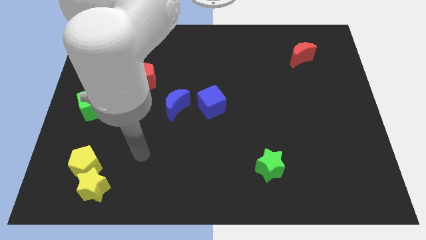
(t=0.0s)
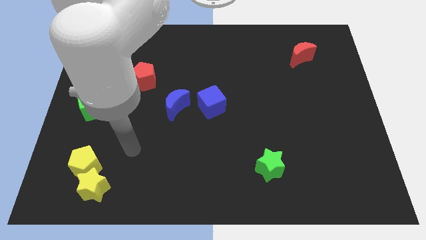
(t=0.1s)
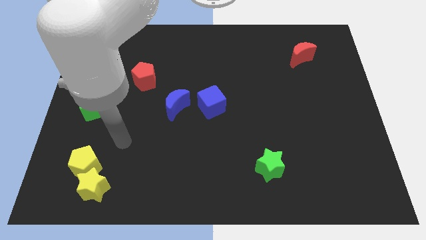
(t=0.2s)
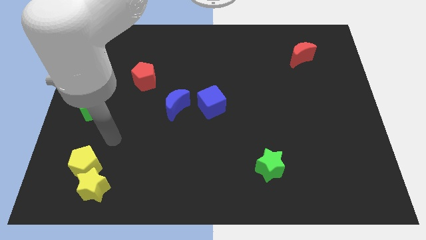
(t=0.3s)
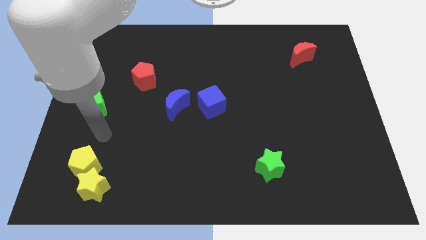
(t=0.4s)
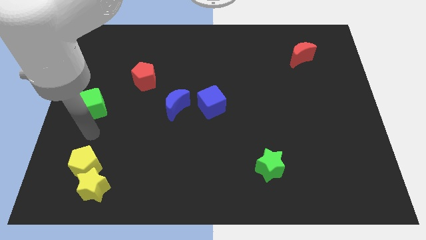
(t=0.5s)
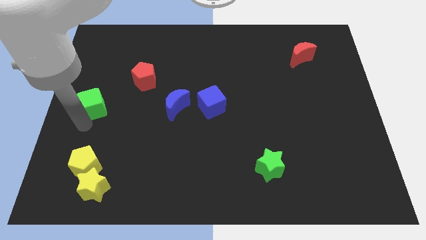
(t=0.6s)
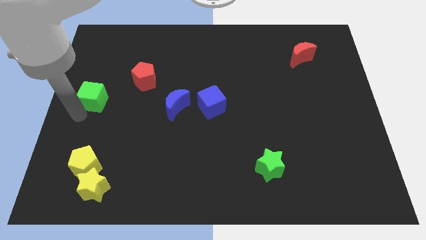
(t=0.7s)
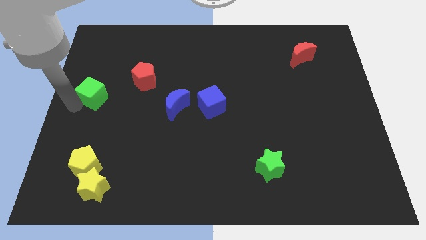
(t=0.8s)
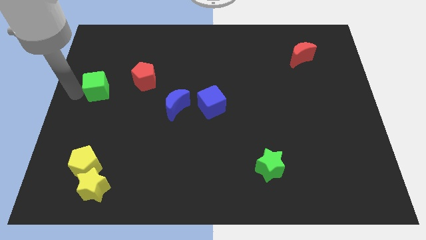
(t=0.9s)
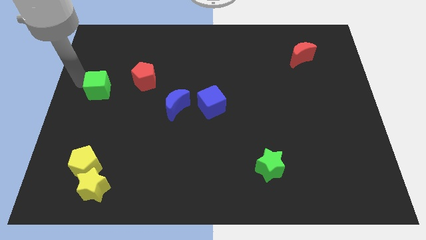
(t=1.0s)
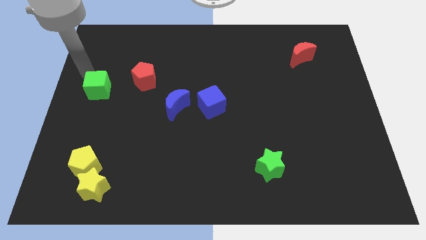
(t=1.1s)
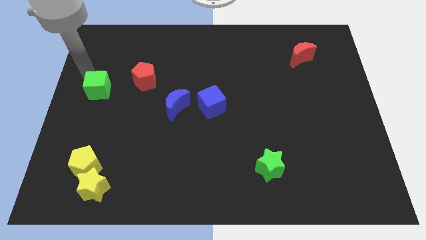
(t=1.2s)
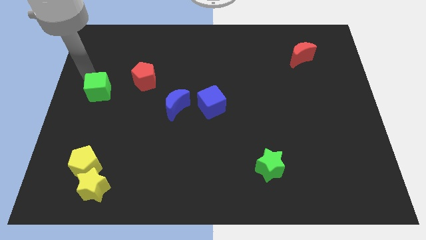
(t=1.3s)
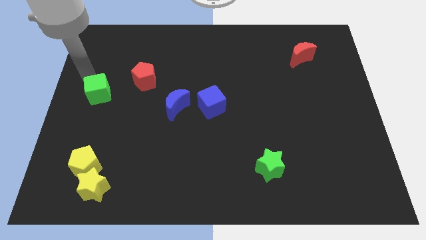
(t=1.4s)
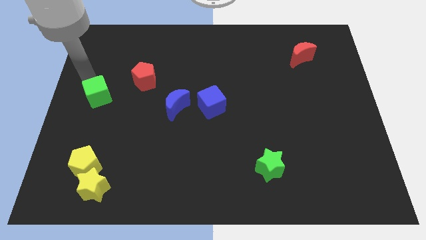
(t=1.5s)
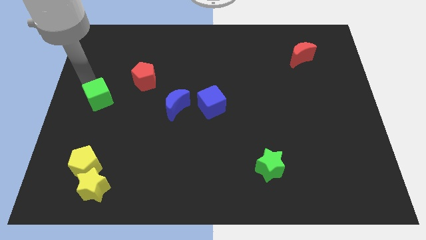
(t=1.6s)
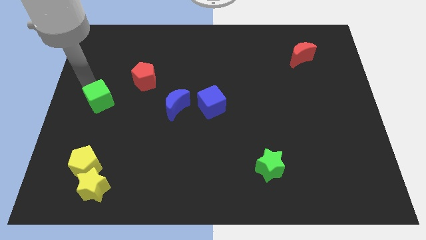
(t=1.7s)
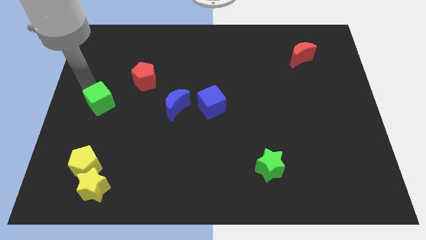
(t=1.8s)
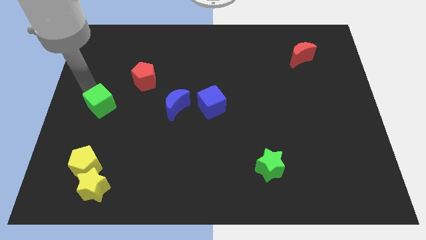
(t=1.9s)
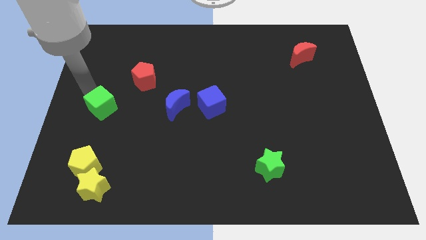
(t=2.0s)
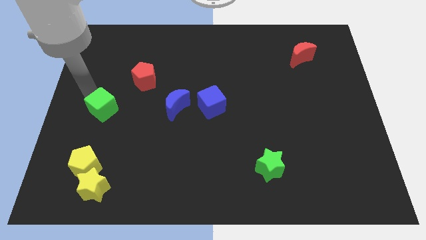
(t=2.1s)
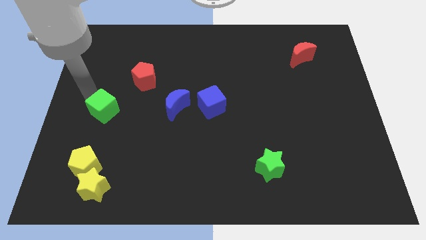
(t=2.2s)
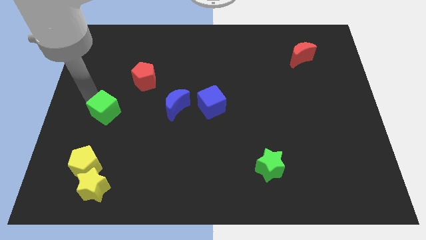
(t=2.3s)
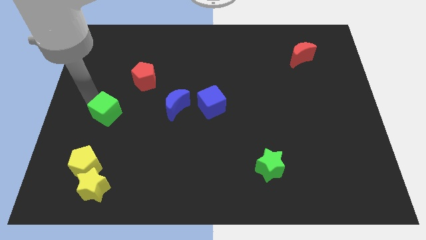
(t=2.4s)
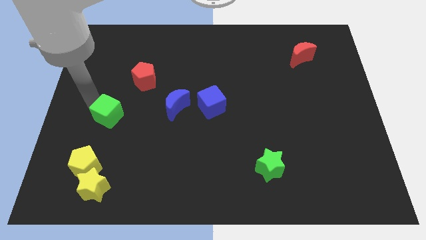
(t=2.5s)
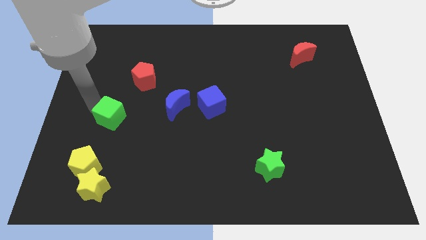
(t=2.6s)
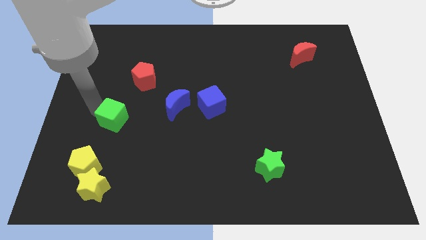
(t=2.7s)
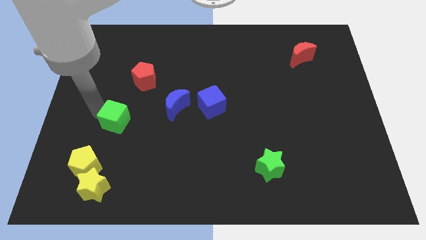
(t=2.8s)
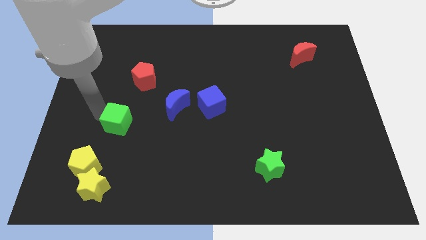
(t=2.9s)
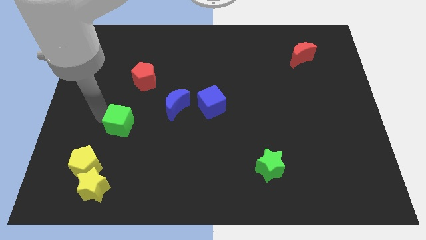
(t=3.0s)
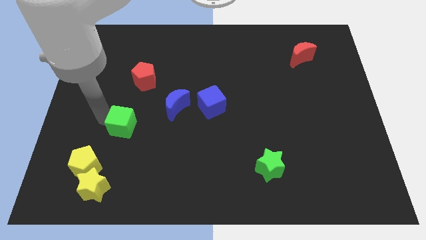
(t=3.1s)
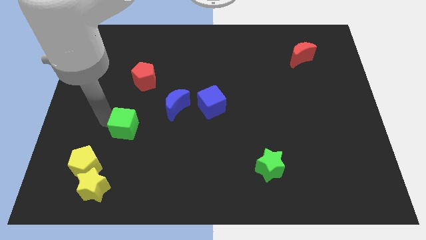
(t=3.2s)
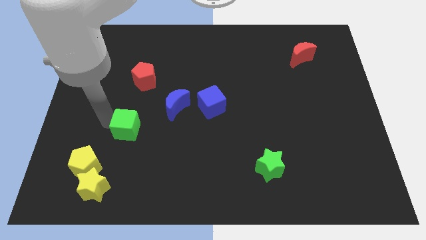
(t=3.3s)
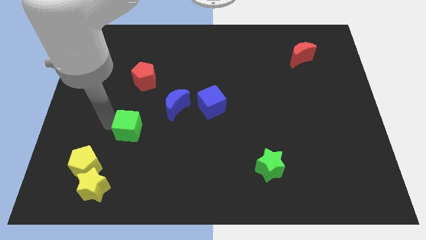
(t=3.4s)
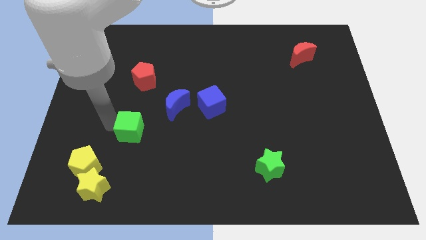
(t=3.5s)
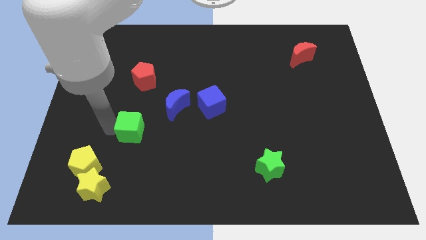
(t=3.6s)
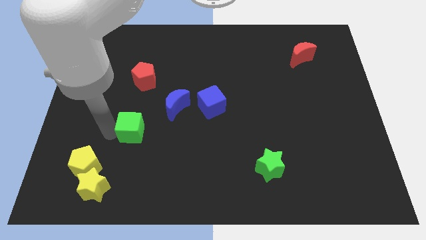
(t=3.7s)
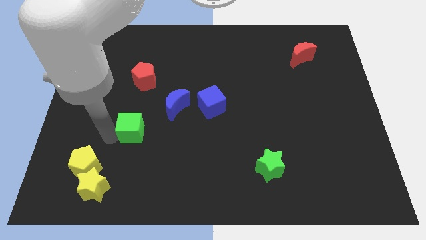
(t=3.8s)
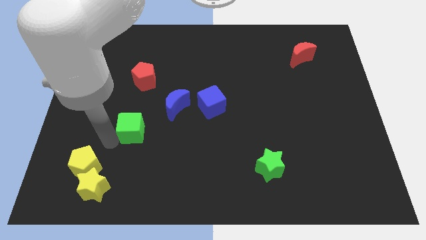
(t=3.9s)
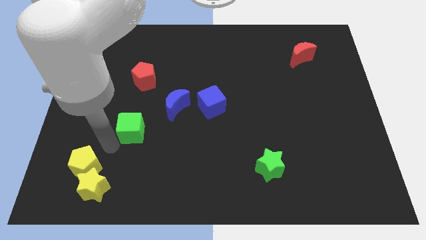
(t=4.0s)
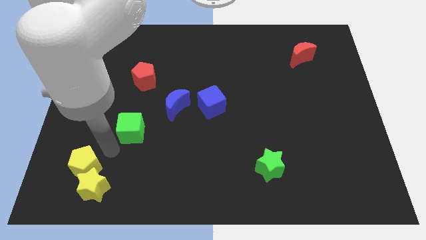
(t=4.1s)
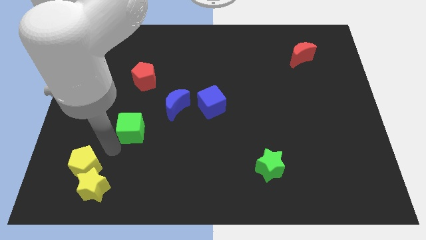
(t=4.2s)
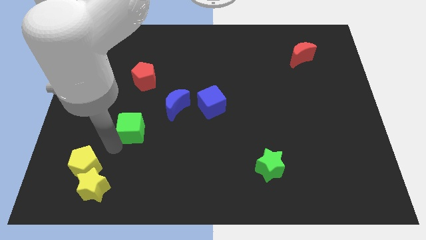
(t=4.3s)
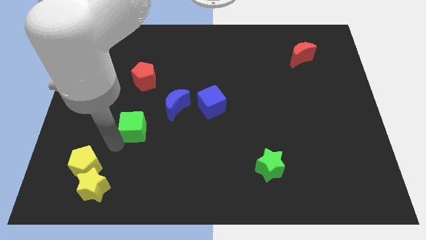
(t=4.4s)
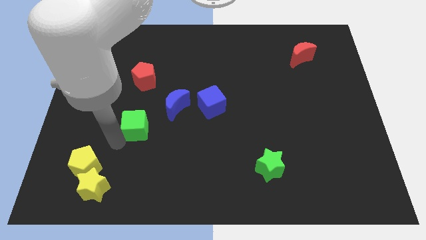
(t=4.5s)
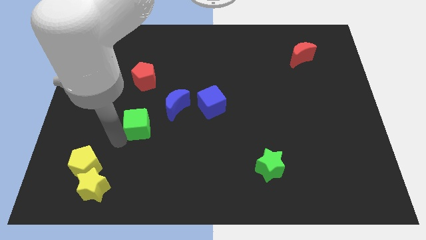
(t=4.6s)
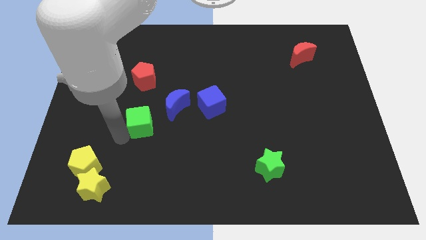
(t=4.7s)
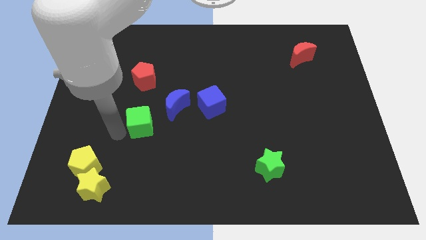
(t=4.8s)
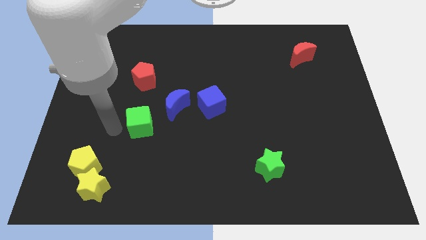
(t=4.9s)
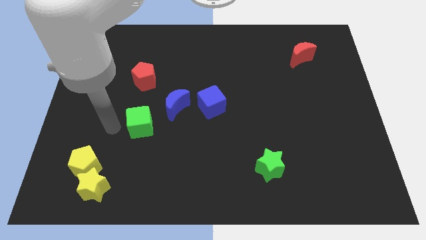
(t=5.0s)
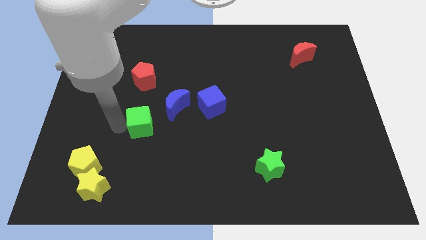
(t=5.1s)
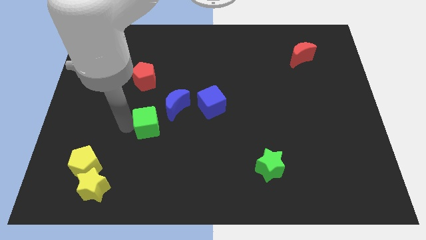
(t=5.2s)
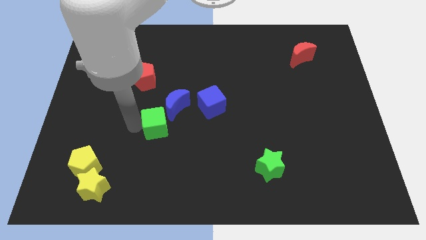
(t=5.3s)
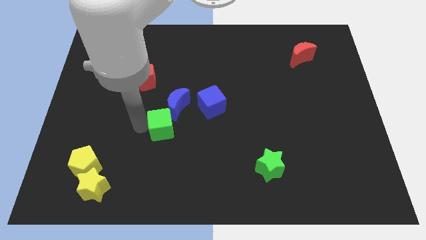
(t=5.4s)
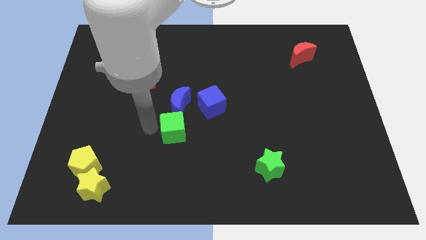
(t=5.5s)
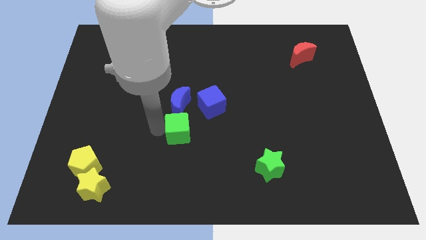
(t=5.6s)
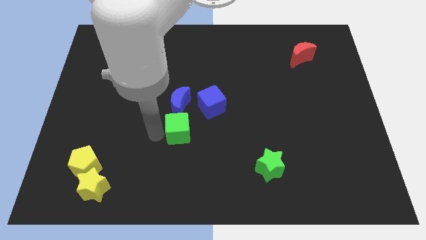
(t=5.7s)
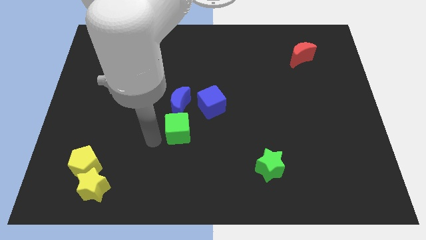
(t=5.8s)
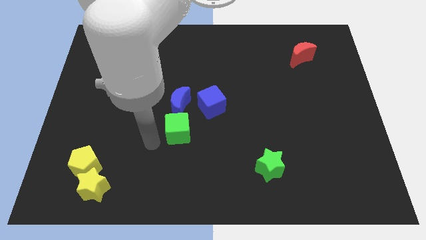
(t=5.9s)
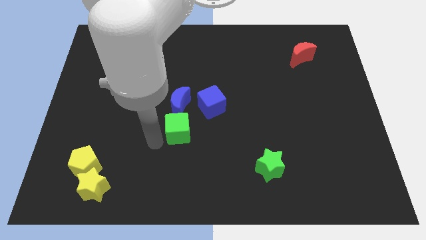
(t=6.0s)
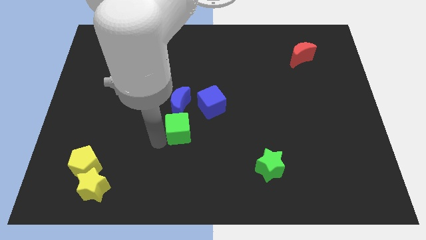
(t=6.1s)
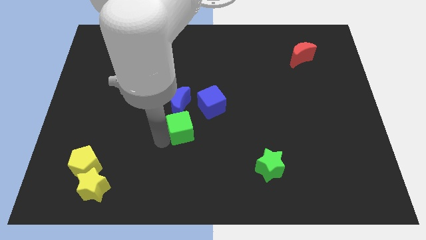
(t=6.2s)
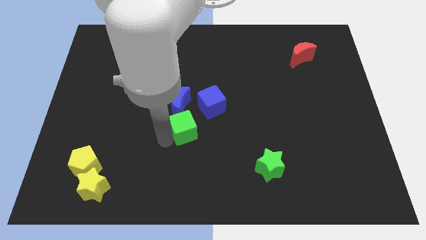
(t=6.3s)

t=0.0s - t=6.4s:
slide the green cube right

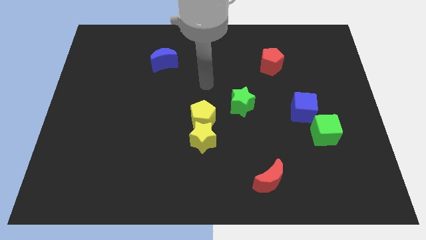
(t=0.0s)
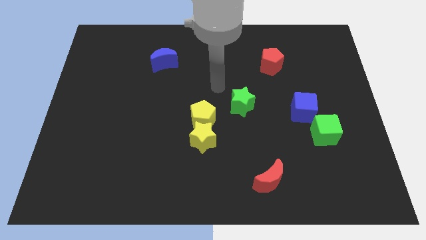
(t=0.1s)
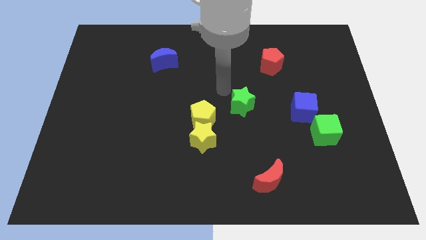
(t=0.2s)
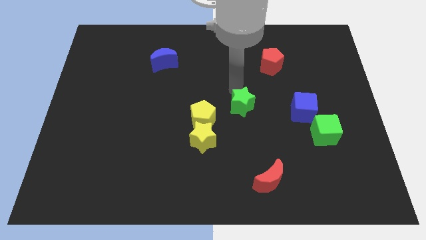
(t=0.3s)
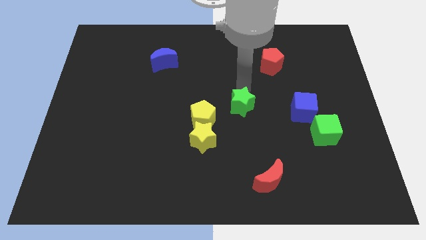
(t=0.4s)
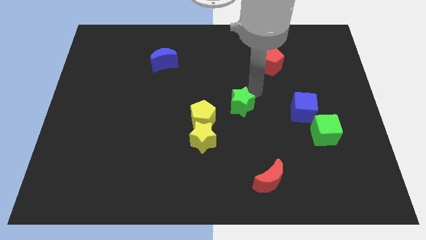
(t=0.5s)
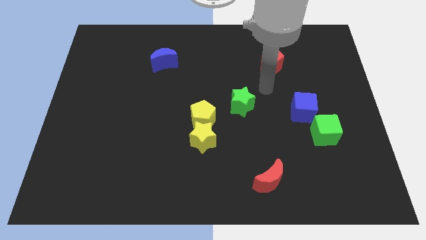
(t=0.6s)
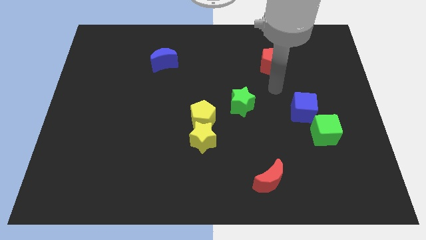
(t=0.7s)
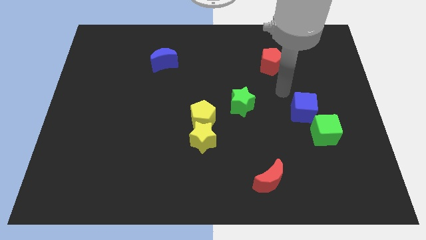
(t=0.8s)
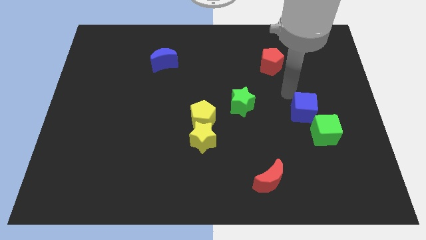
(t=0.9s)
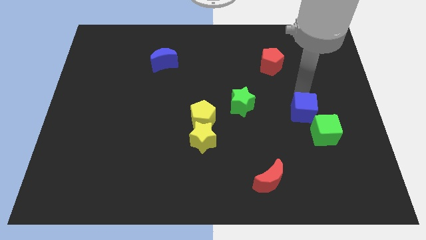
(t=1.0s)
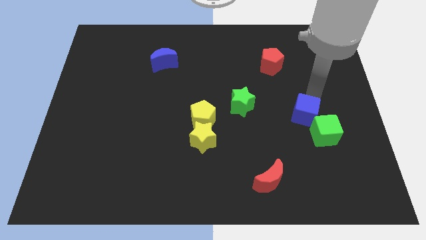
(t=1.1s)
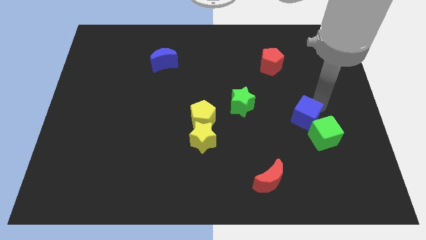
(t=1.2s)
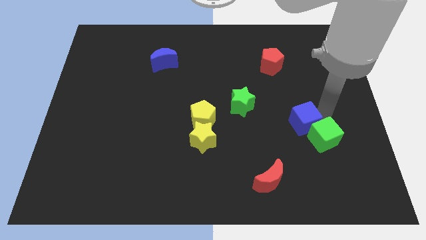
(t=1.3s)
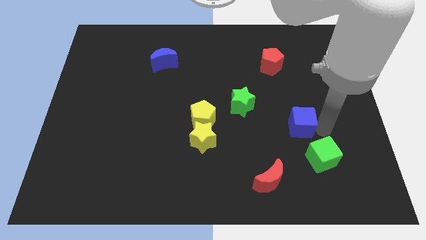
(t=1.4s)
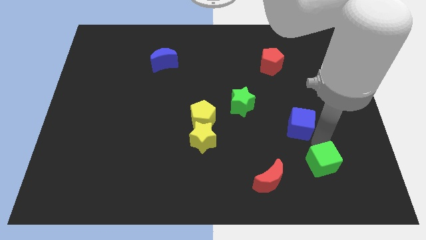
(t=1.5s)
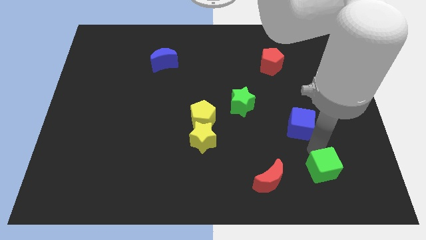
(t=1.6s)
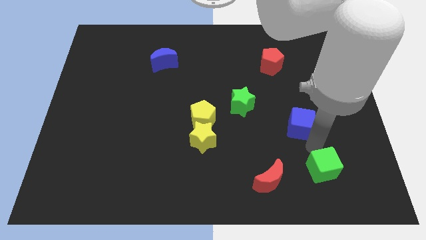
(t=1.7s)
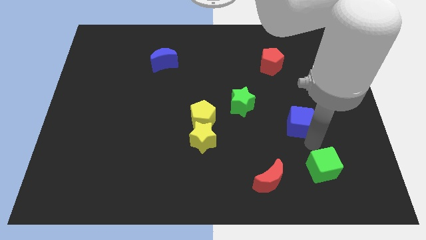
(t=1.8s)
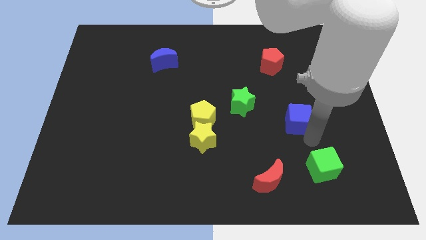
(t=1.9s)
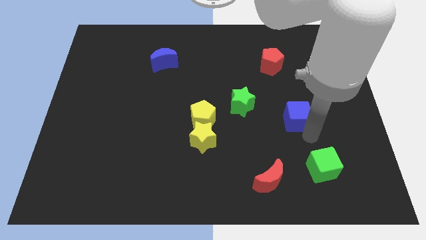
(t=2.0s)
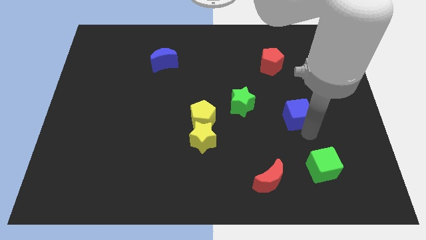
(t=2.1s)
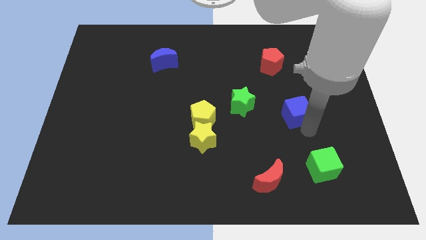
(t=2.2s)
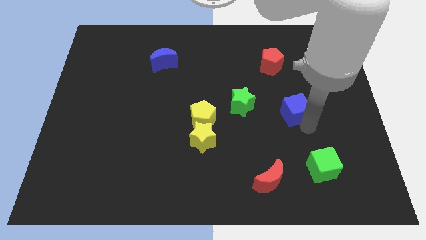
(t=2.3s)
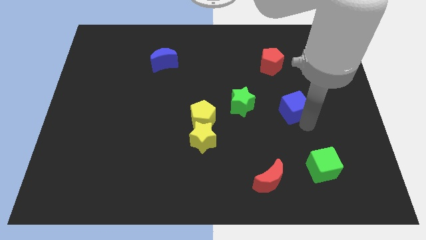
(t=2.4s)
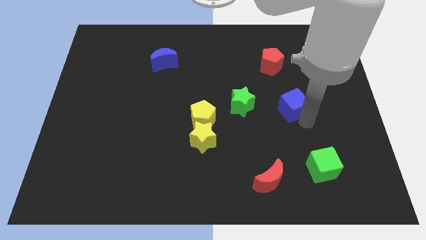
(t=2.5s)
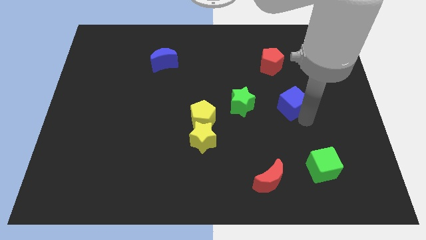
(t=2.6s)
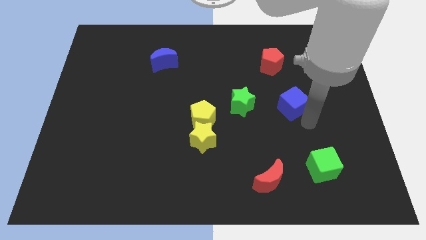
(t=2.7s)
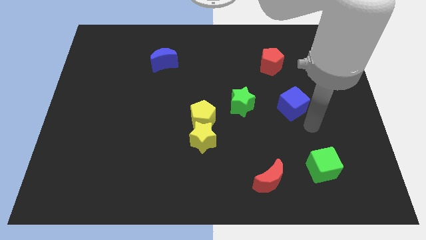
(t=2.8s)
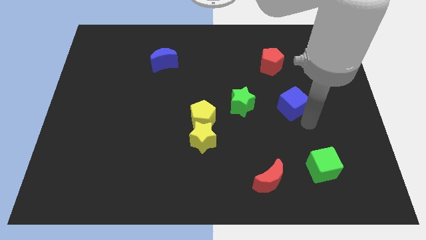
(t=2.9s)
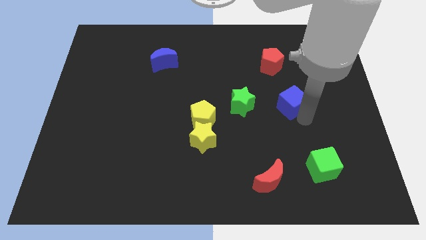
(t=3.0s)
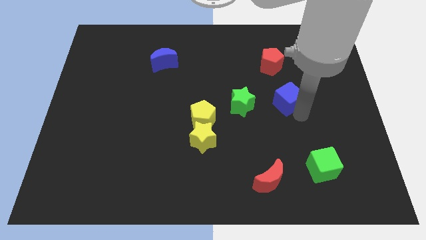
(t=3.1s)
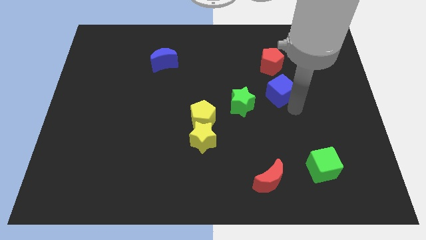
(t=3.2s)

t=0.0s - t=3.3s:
slightly push the blue cube diagonally upwards and left
